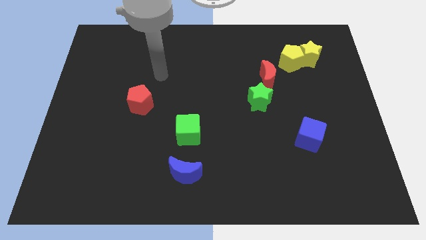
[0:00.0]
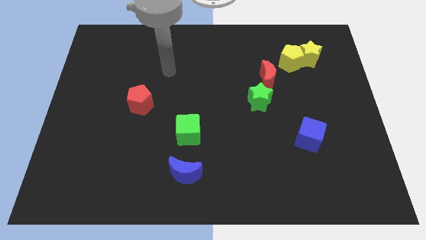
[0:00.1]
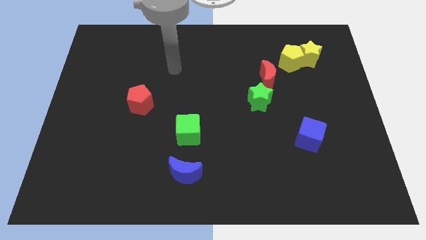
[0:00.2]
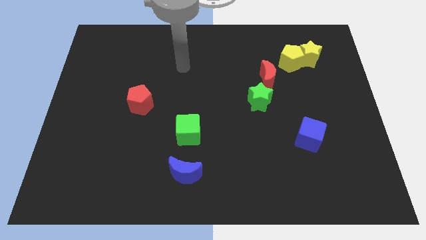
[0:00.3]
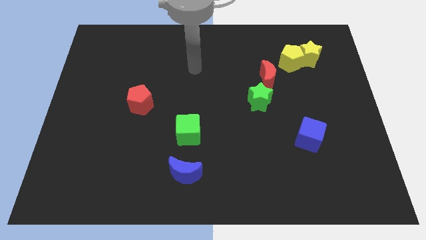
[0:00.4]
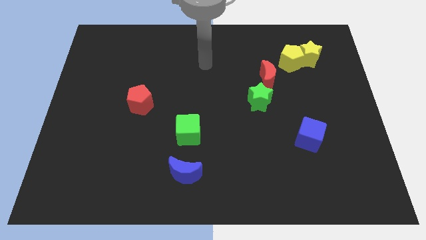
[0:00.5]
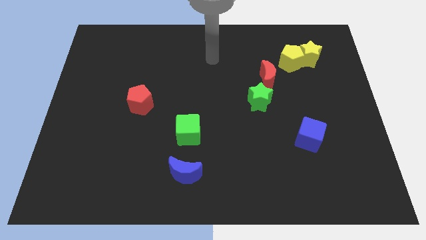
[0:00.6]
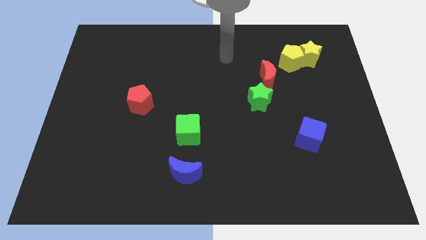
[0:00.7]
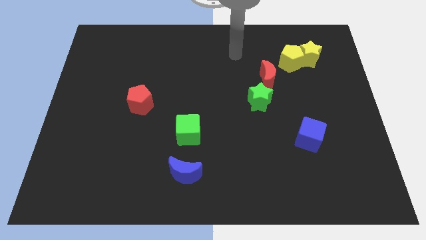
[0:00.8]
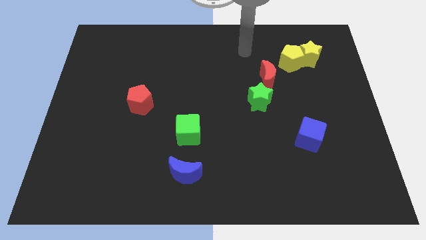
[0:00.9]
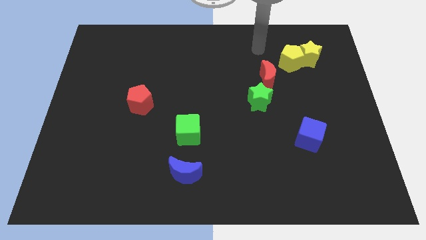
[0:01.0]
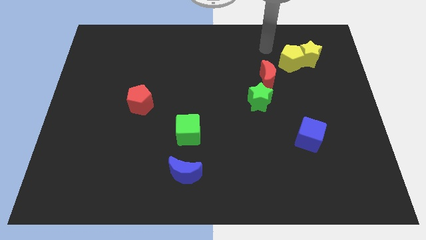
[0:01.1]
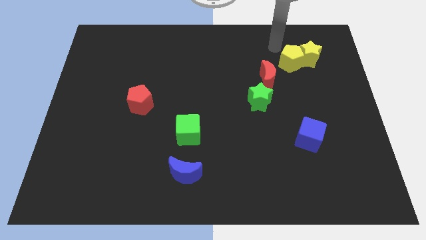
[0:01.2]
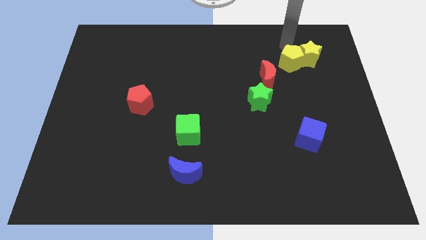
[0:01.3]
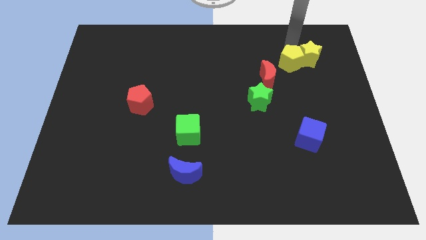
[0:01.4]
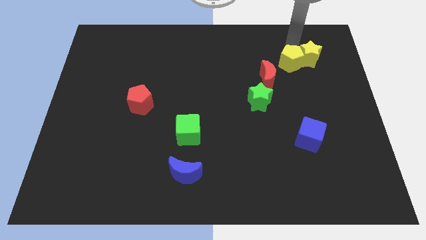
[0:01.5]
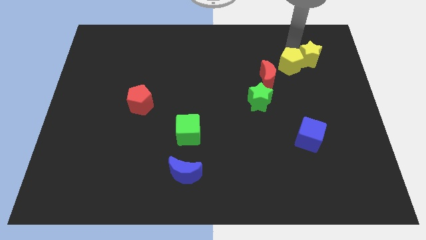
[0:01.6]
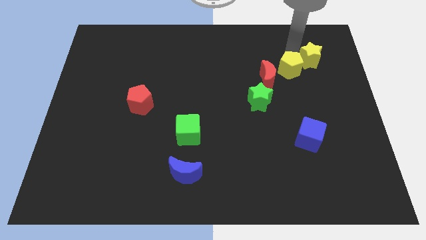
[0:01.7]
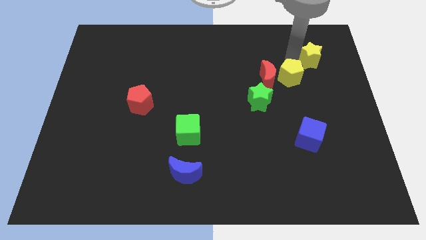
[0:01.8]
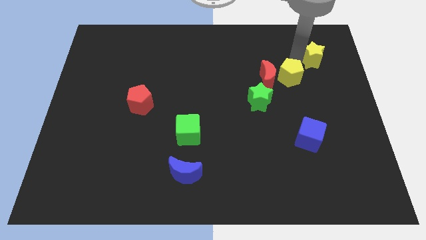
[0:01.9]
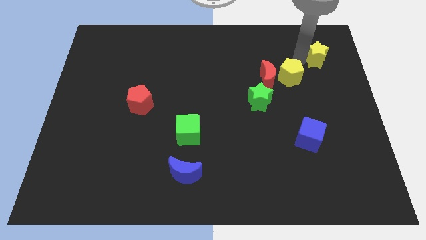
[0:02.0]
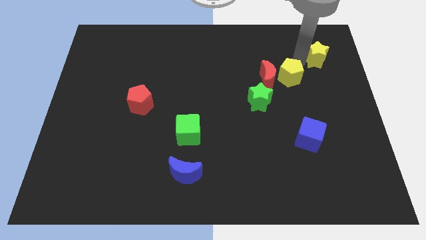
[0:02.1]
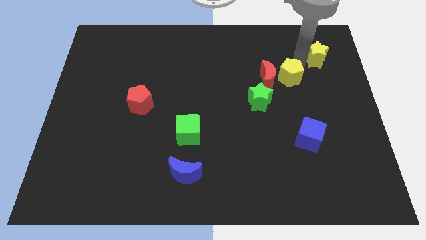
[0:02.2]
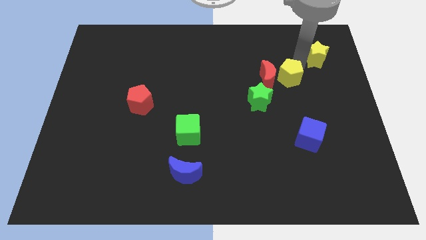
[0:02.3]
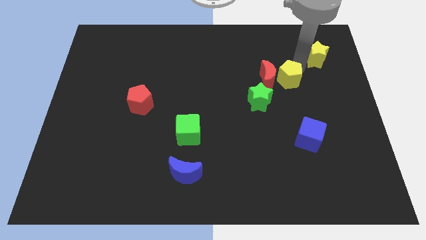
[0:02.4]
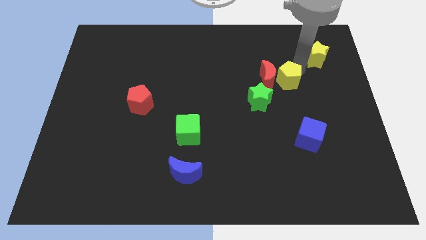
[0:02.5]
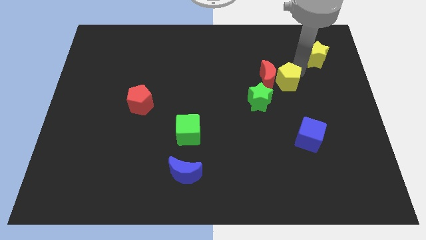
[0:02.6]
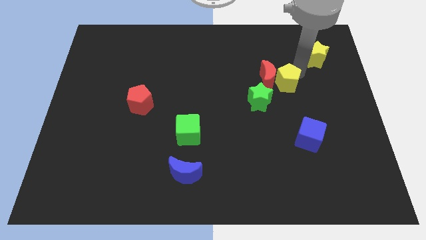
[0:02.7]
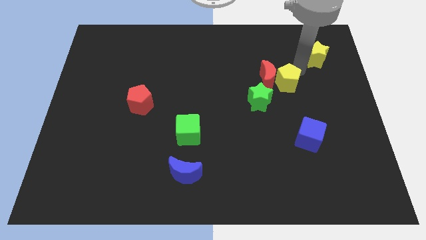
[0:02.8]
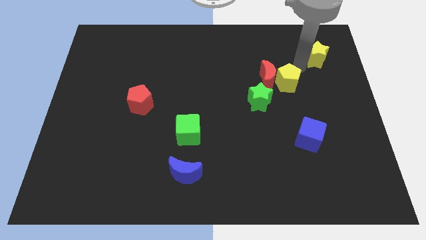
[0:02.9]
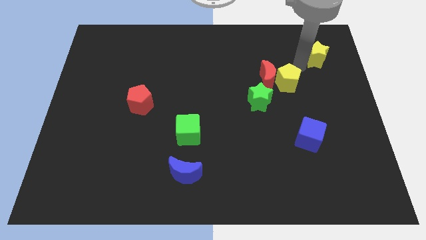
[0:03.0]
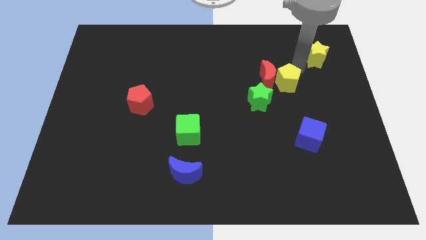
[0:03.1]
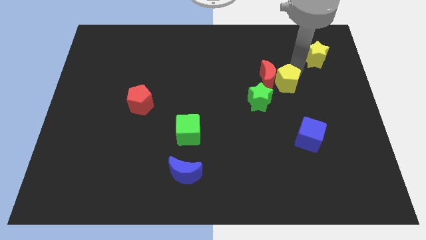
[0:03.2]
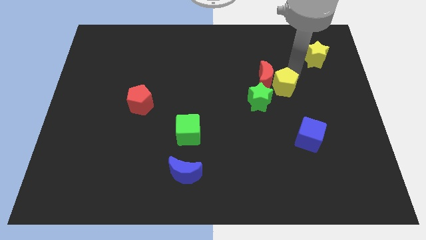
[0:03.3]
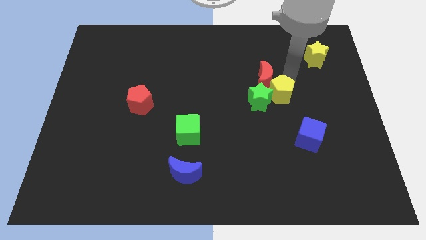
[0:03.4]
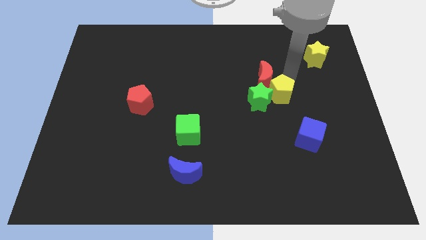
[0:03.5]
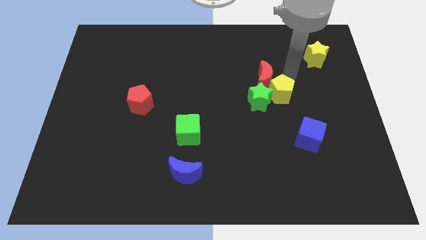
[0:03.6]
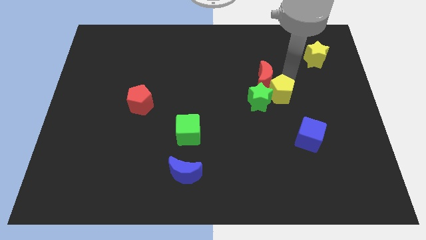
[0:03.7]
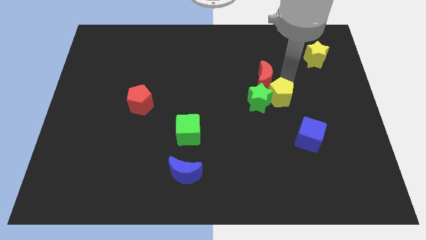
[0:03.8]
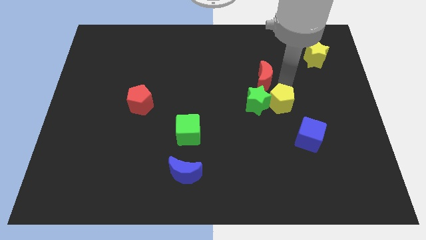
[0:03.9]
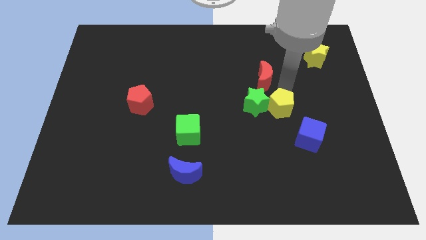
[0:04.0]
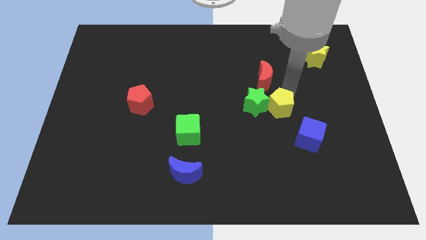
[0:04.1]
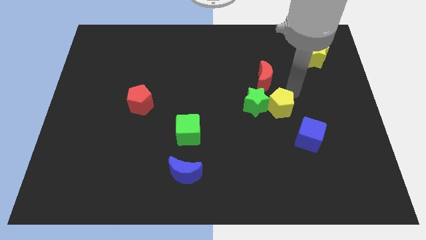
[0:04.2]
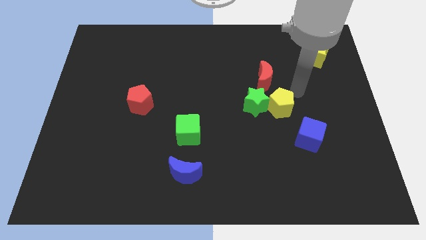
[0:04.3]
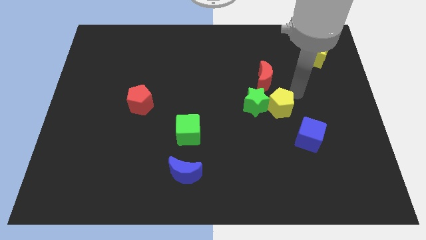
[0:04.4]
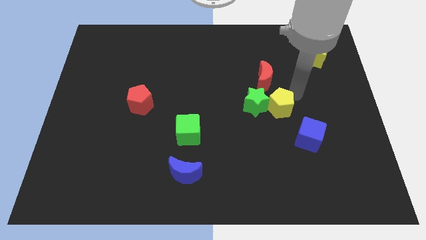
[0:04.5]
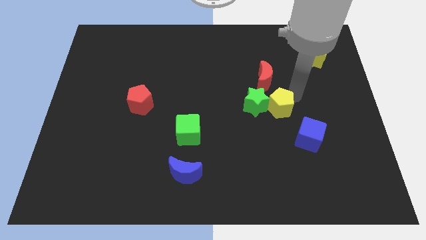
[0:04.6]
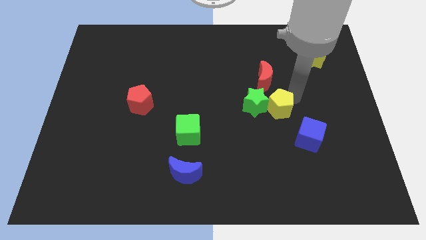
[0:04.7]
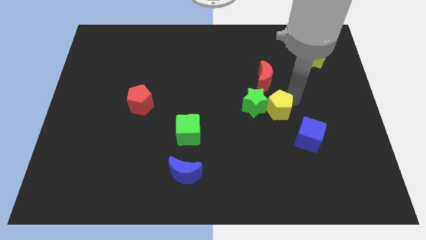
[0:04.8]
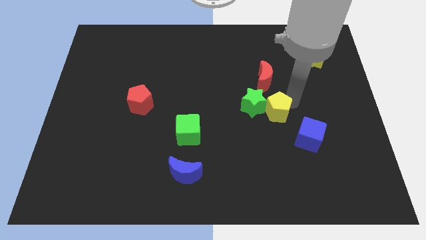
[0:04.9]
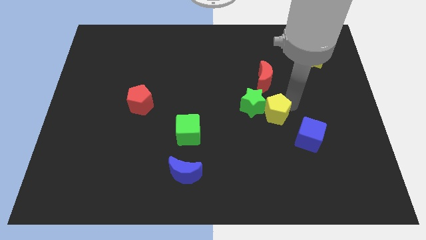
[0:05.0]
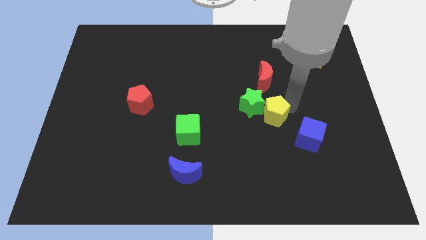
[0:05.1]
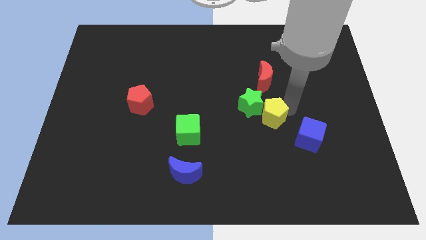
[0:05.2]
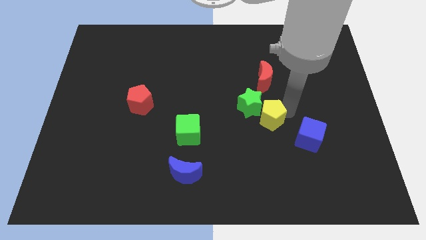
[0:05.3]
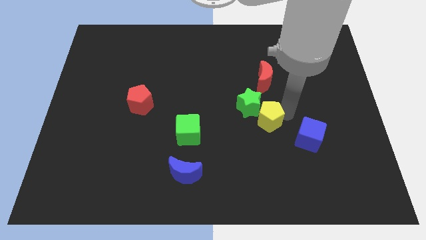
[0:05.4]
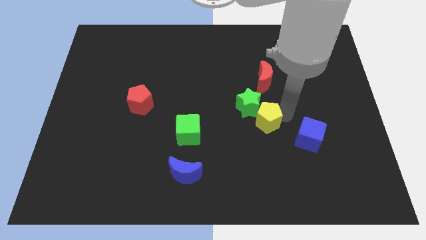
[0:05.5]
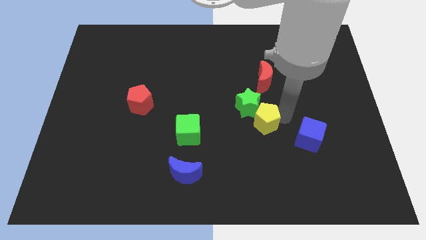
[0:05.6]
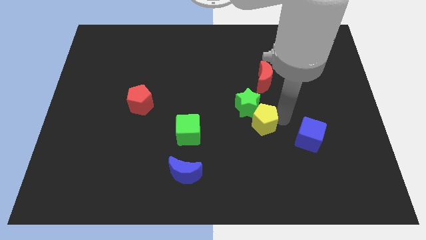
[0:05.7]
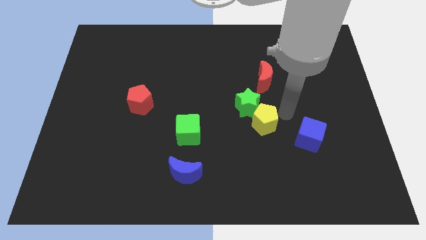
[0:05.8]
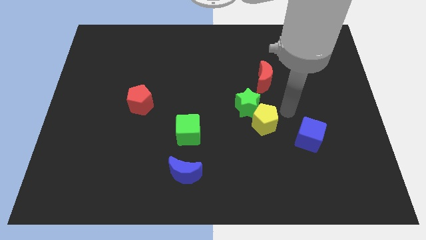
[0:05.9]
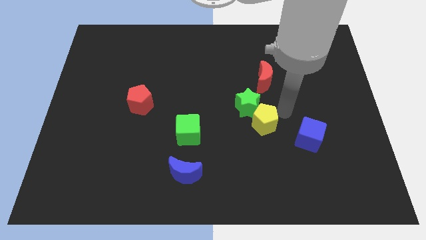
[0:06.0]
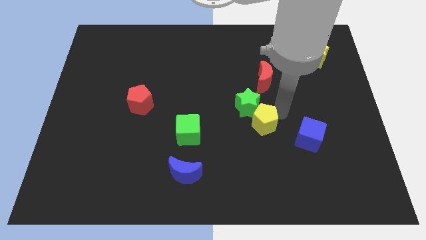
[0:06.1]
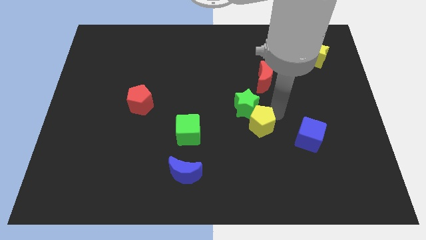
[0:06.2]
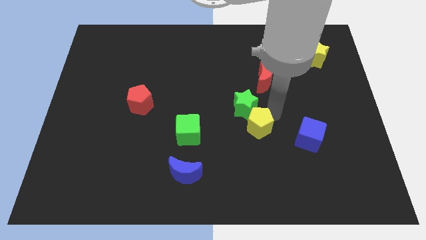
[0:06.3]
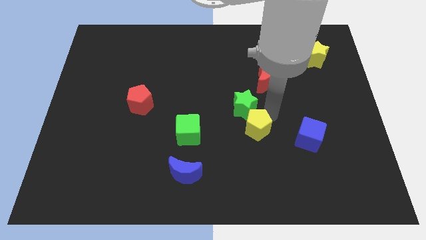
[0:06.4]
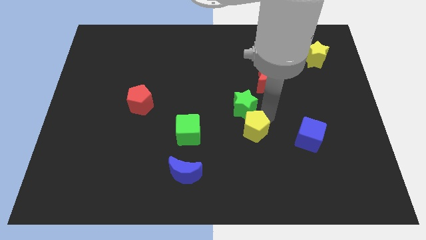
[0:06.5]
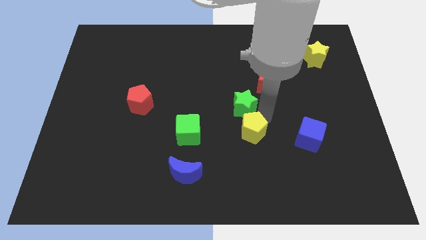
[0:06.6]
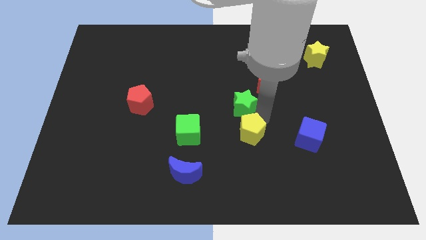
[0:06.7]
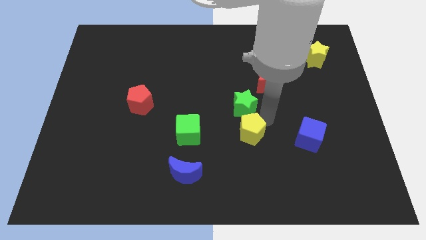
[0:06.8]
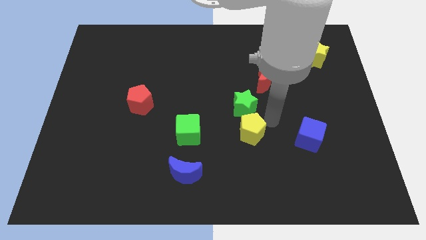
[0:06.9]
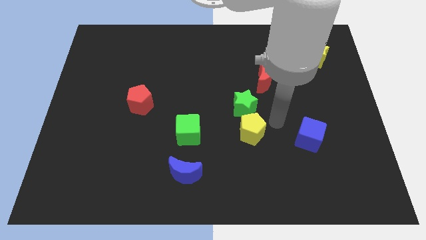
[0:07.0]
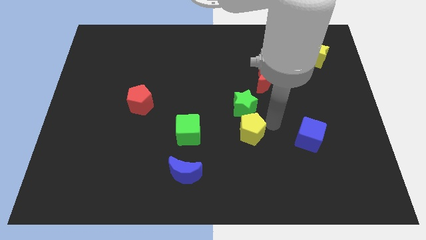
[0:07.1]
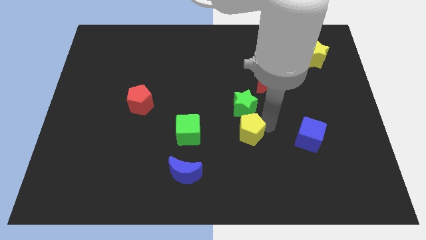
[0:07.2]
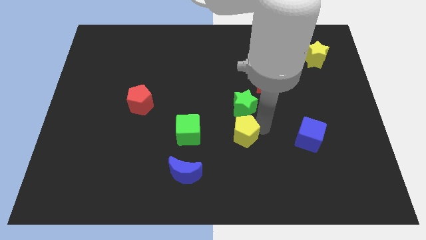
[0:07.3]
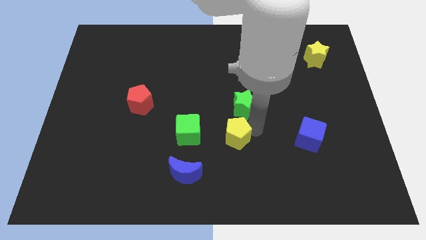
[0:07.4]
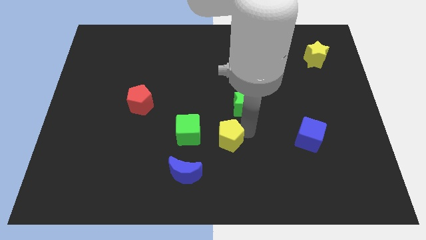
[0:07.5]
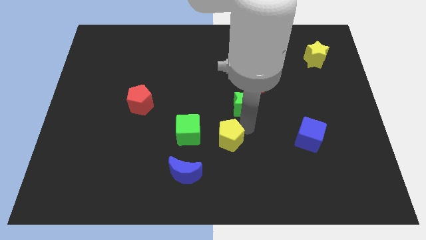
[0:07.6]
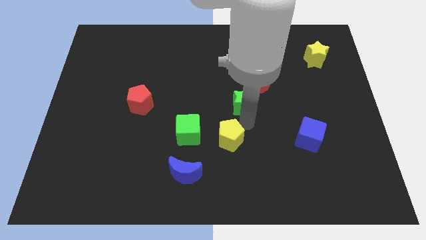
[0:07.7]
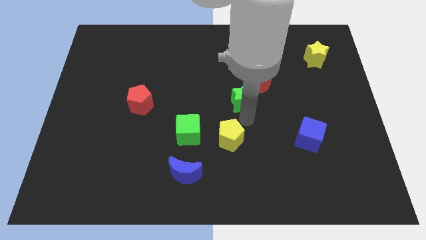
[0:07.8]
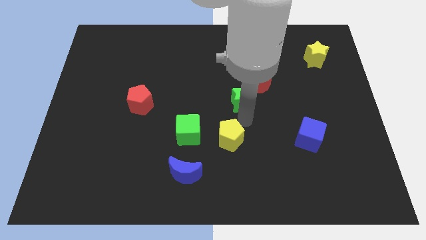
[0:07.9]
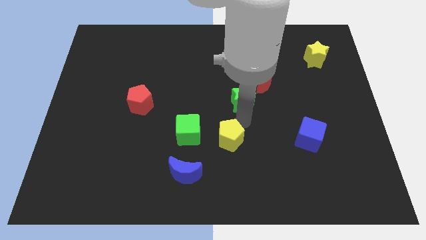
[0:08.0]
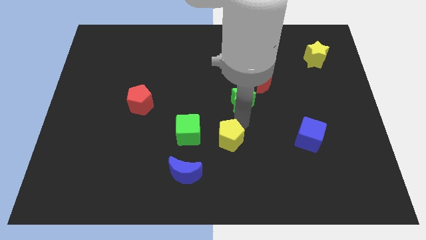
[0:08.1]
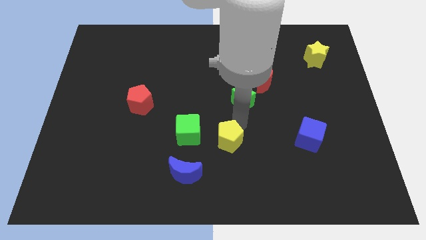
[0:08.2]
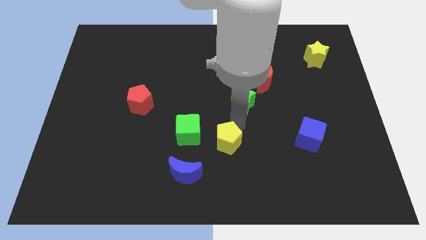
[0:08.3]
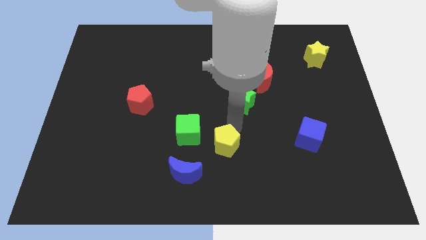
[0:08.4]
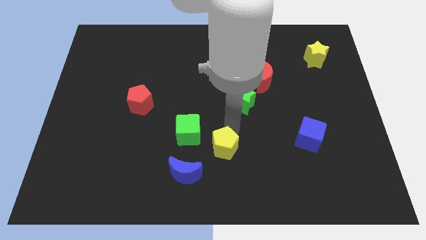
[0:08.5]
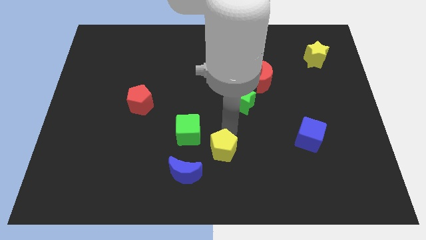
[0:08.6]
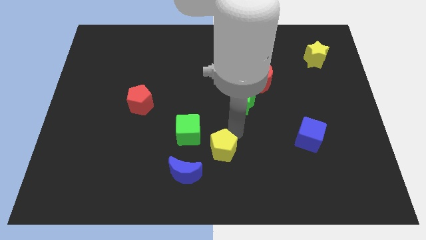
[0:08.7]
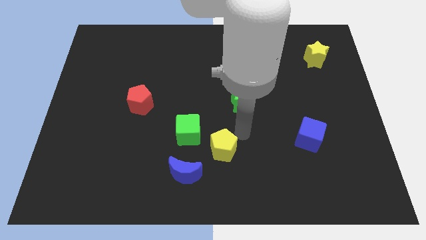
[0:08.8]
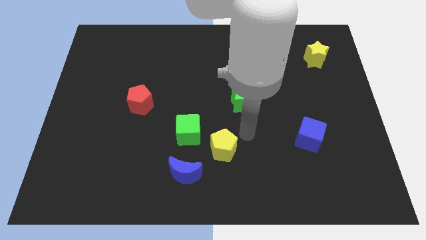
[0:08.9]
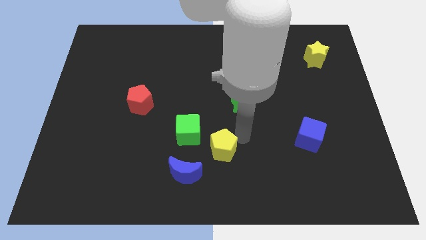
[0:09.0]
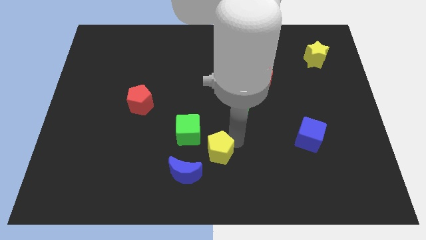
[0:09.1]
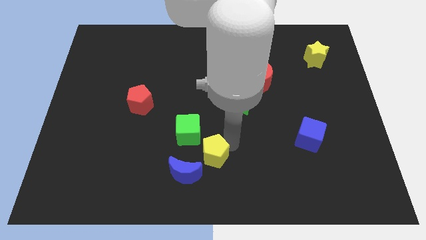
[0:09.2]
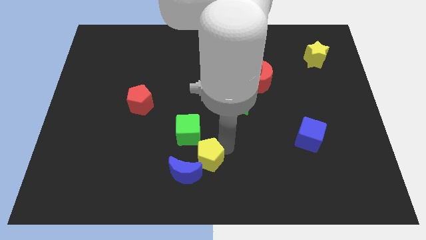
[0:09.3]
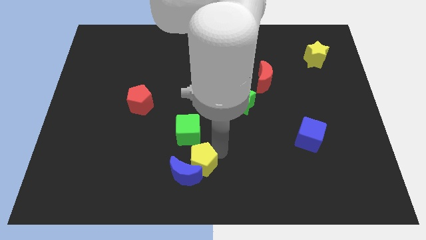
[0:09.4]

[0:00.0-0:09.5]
slide the yellow pentagon close to the blue moon
